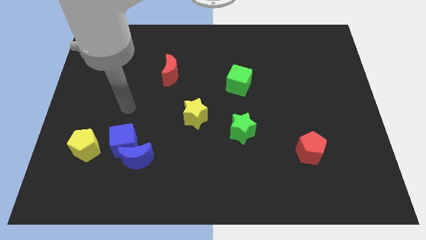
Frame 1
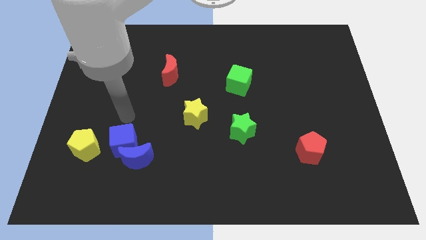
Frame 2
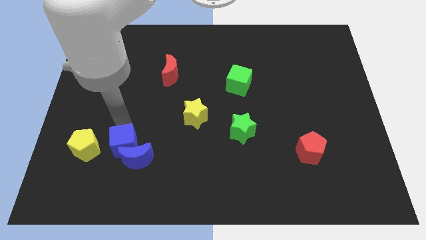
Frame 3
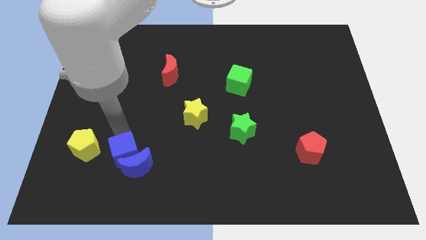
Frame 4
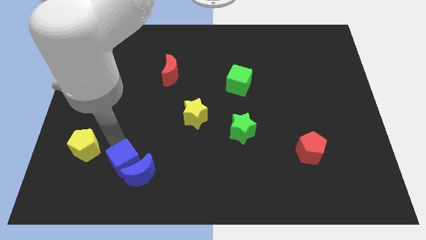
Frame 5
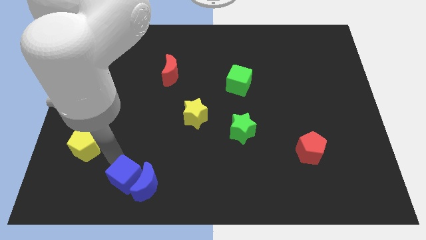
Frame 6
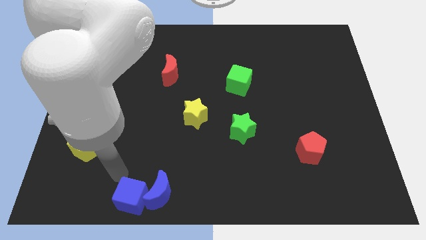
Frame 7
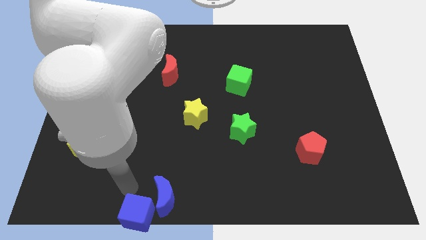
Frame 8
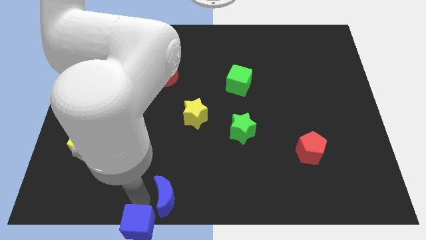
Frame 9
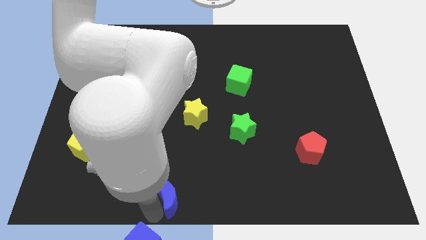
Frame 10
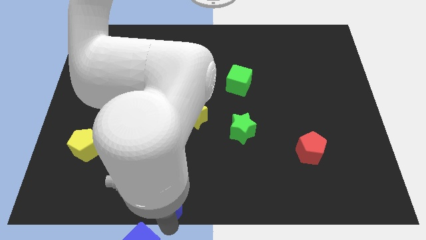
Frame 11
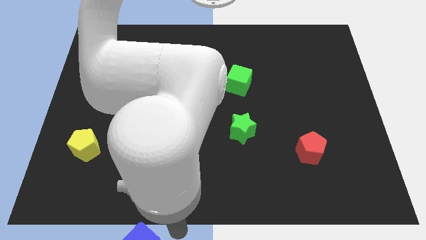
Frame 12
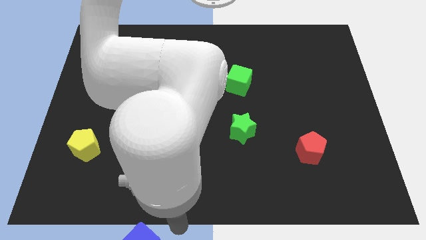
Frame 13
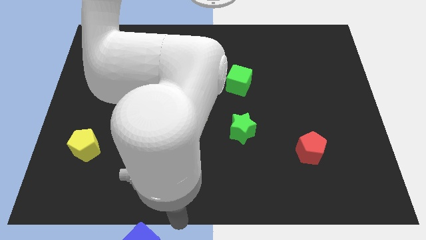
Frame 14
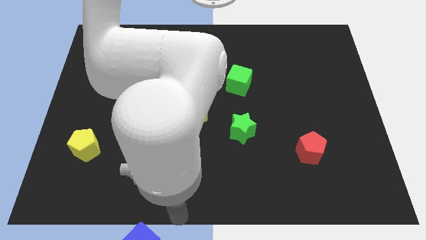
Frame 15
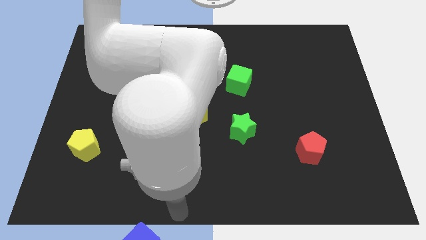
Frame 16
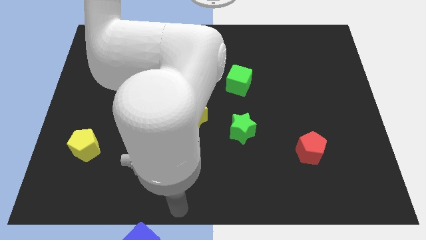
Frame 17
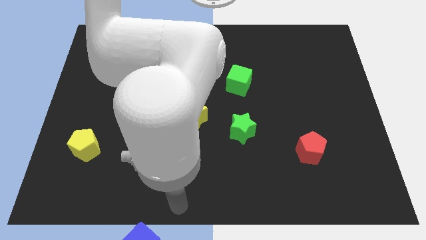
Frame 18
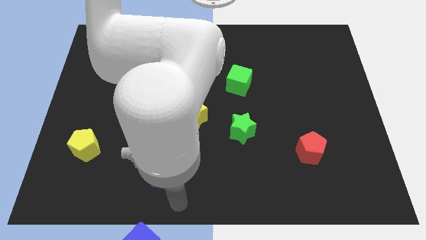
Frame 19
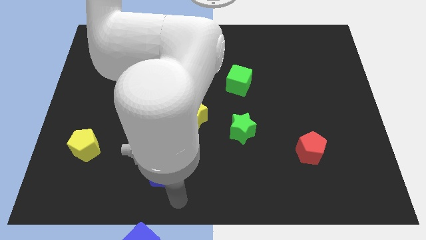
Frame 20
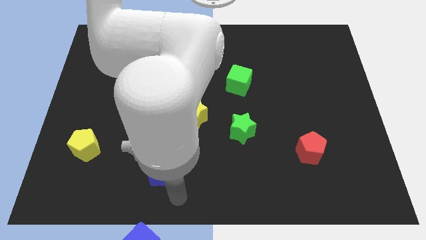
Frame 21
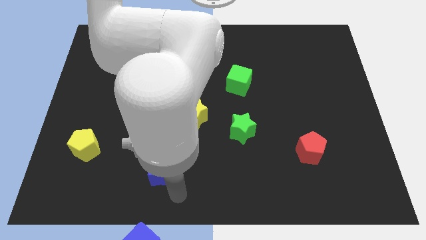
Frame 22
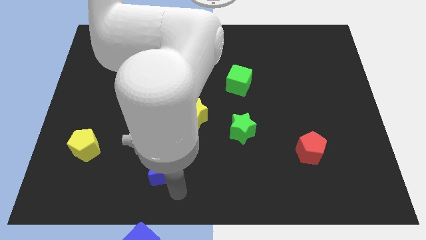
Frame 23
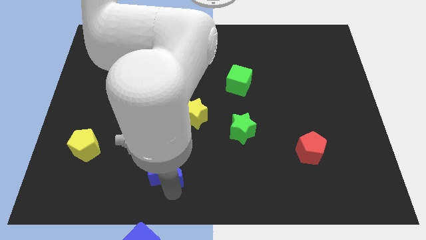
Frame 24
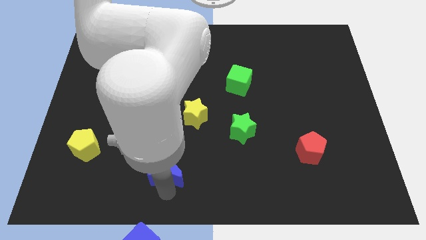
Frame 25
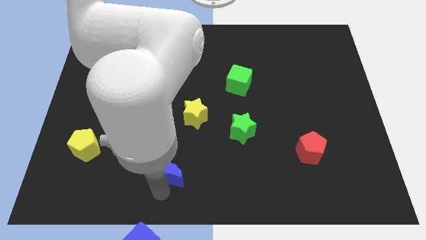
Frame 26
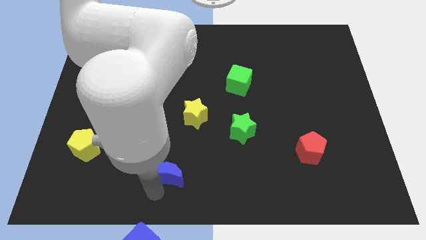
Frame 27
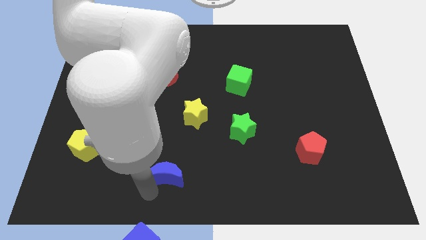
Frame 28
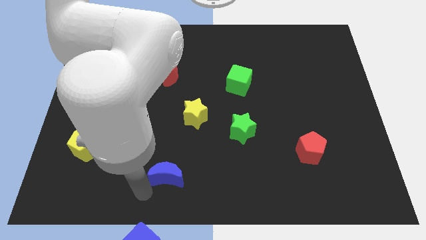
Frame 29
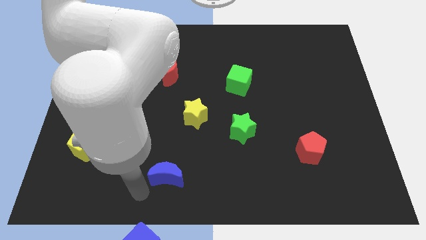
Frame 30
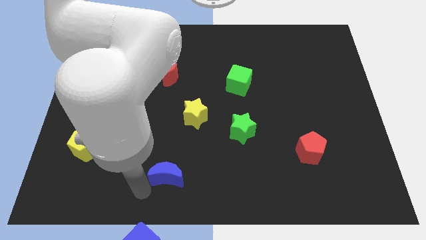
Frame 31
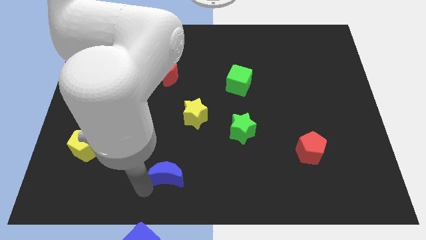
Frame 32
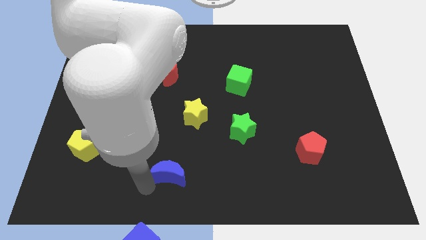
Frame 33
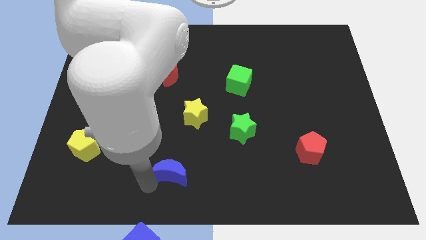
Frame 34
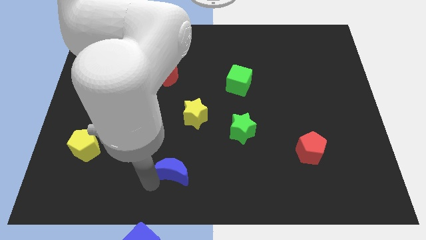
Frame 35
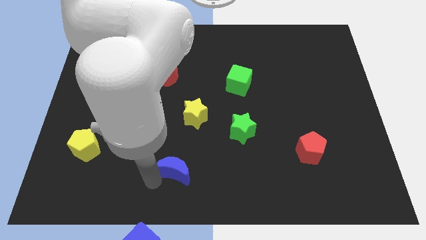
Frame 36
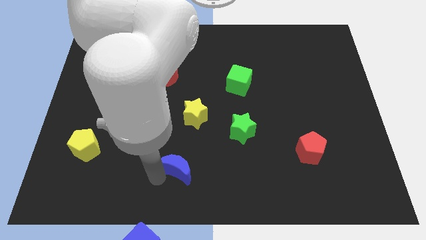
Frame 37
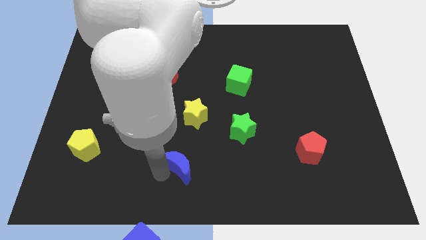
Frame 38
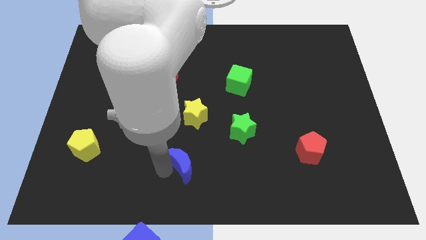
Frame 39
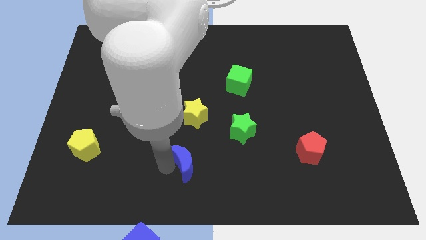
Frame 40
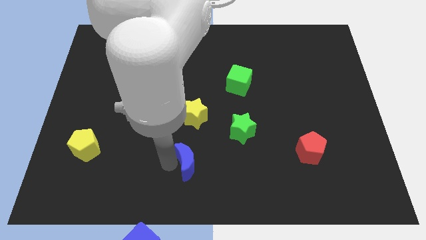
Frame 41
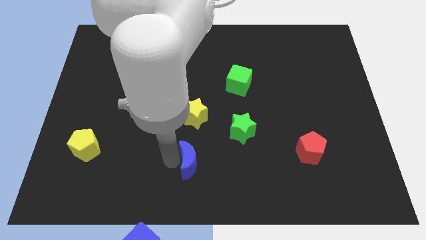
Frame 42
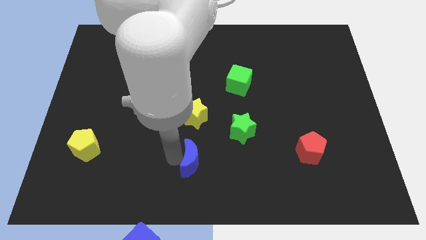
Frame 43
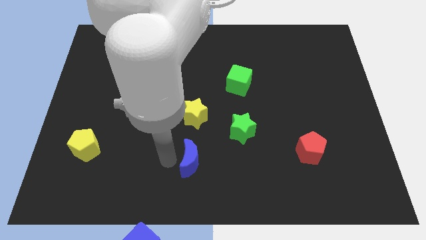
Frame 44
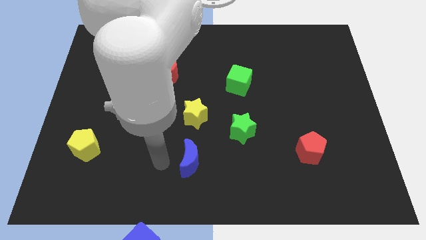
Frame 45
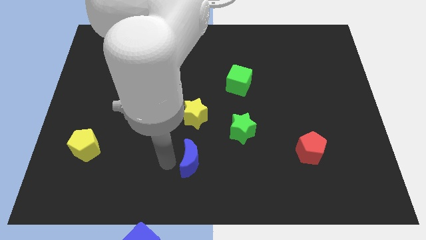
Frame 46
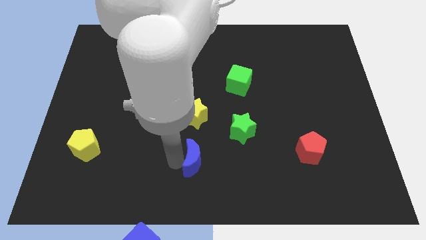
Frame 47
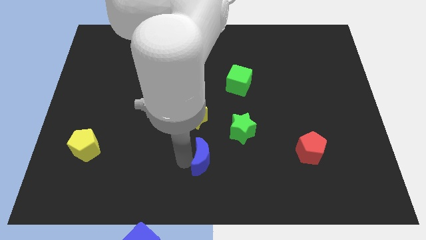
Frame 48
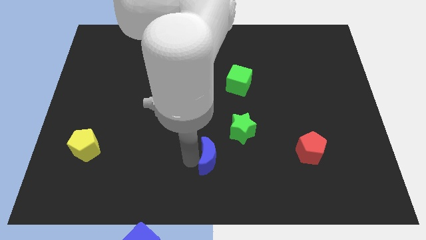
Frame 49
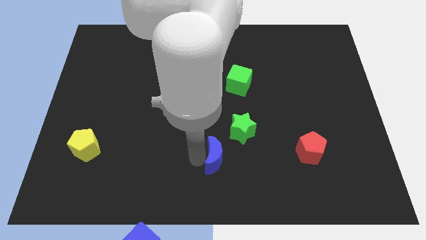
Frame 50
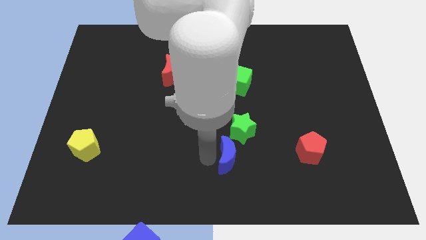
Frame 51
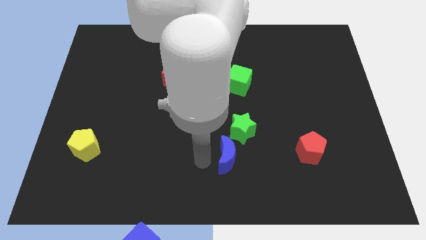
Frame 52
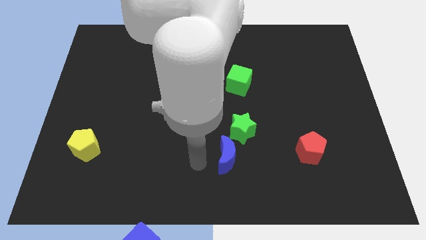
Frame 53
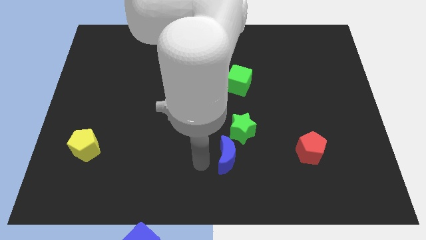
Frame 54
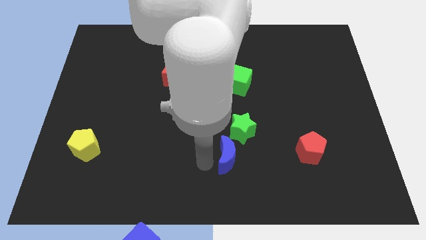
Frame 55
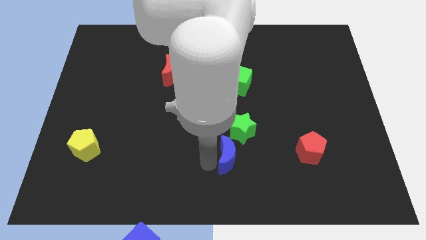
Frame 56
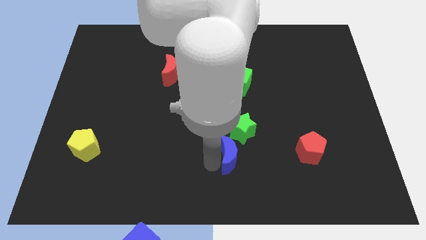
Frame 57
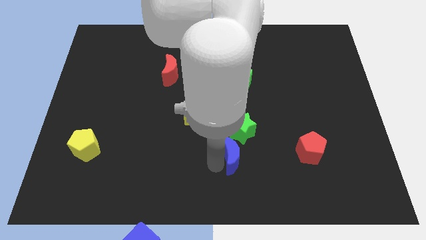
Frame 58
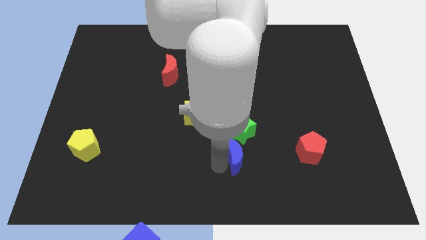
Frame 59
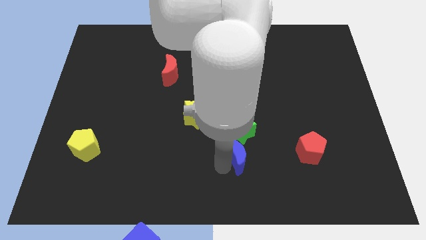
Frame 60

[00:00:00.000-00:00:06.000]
slide the blue moon just left of the red pentagon
